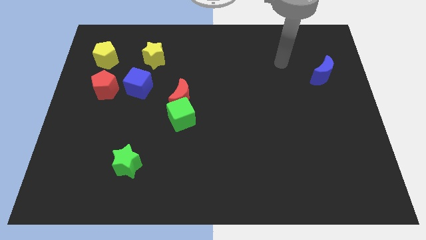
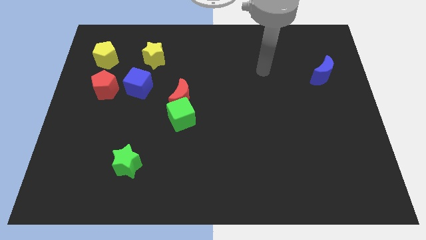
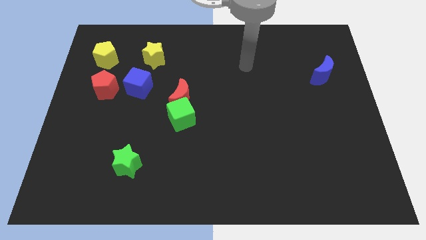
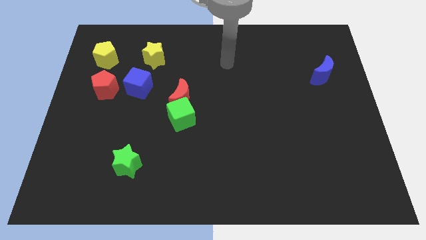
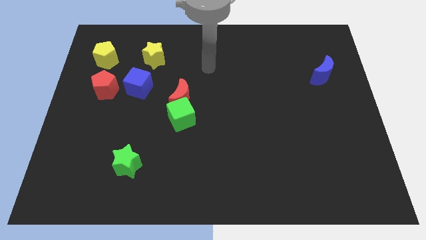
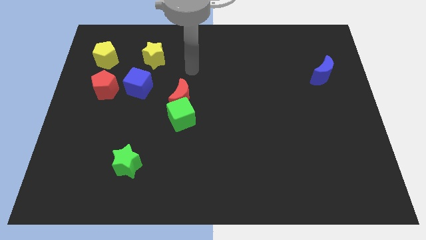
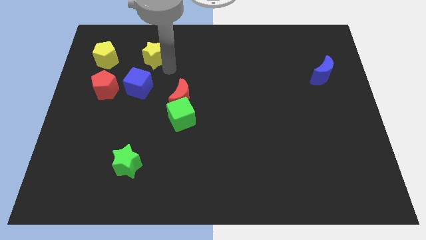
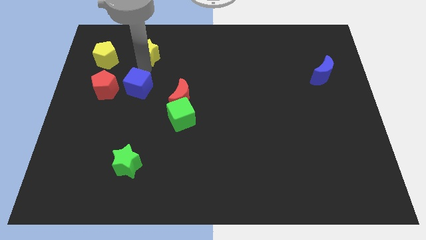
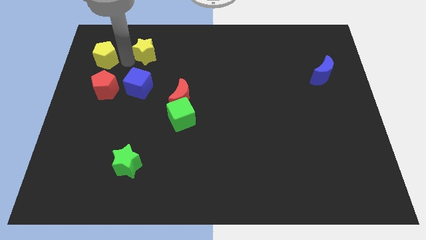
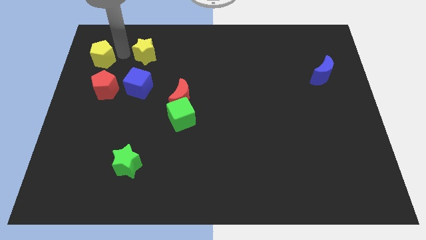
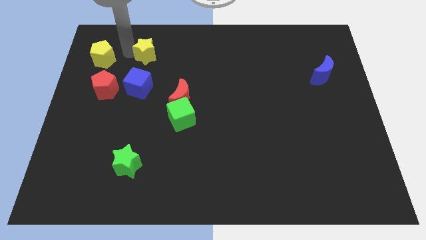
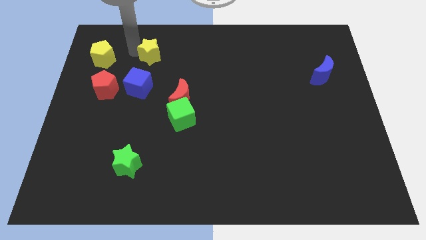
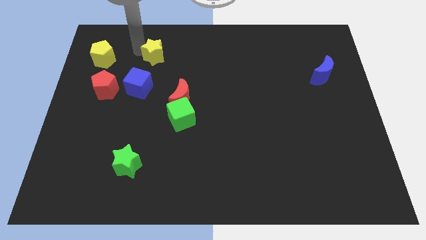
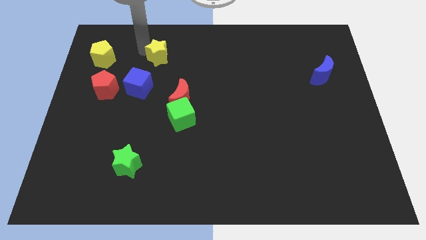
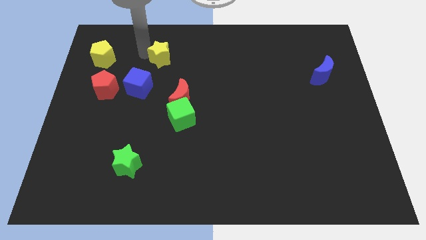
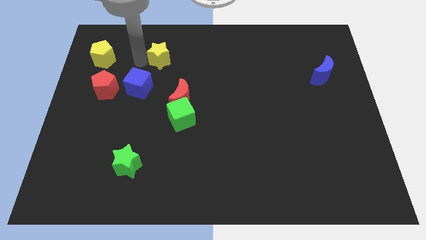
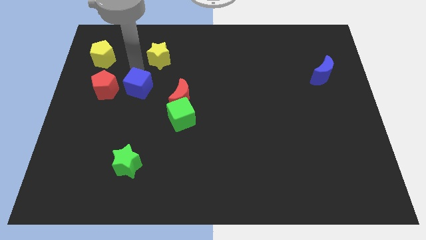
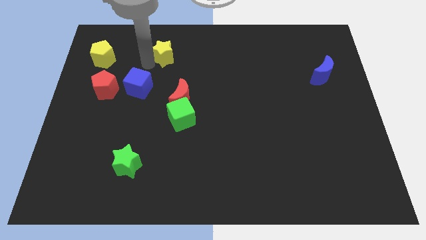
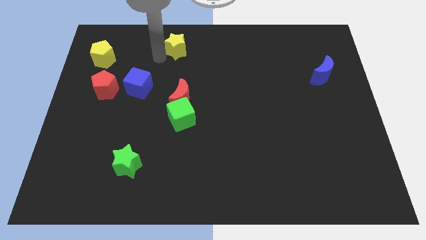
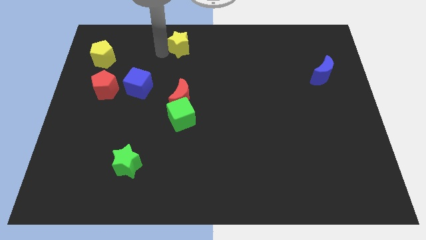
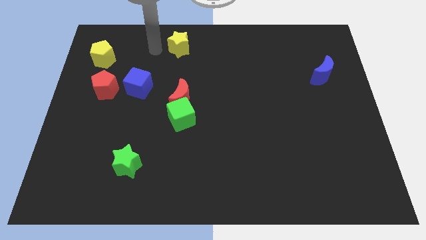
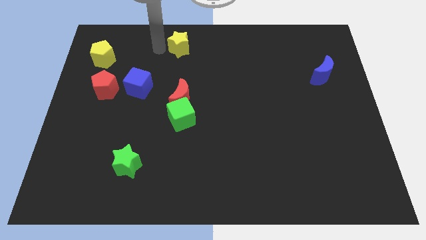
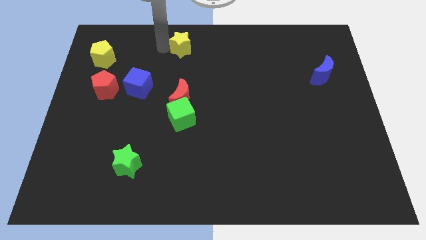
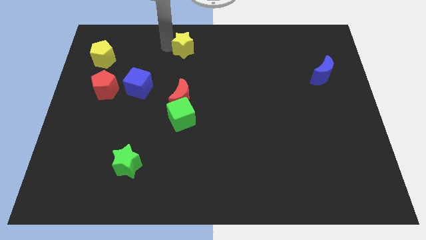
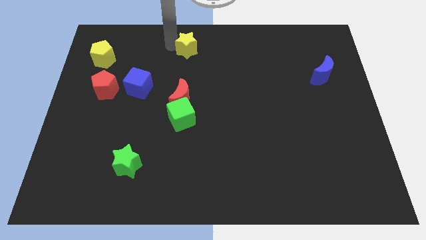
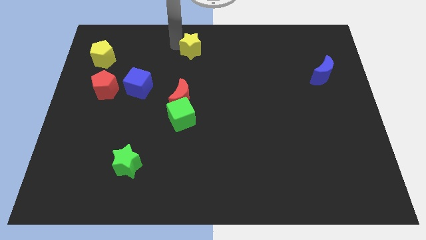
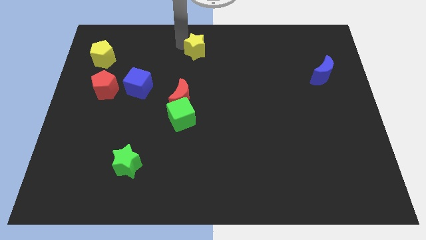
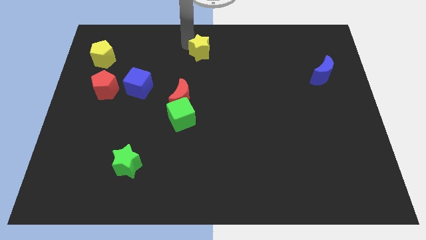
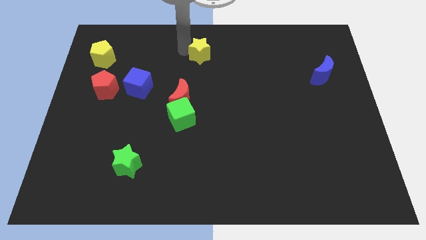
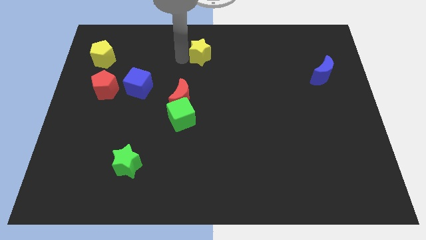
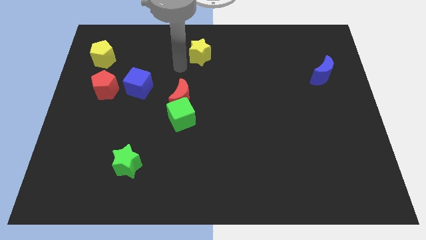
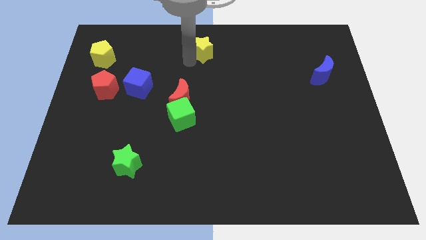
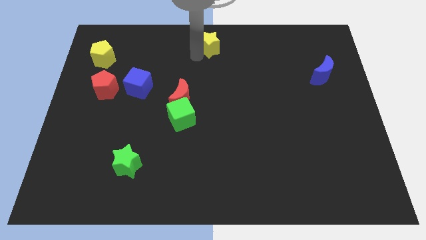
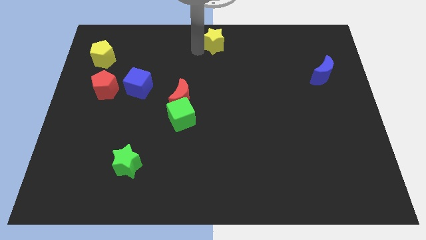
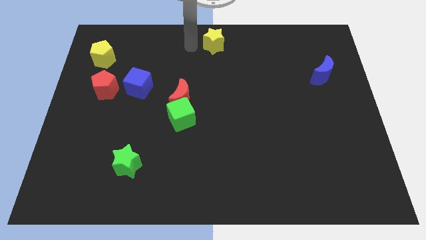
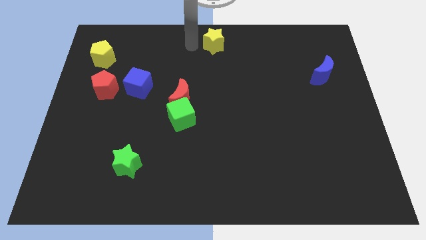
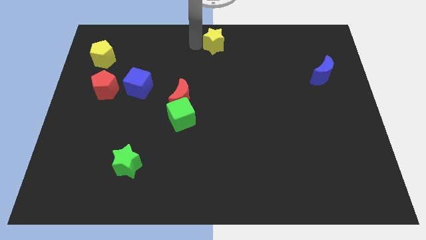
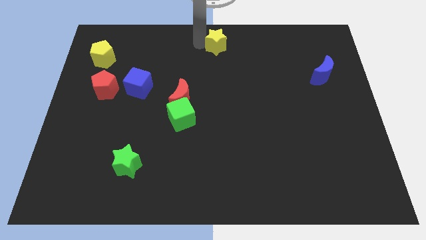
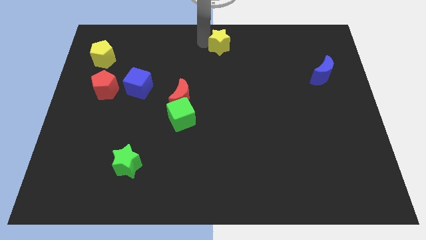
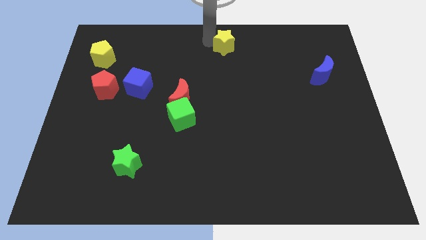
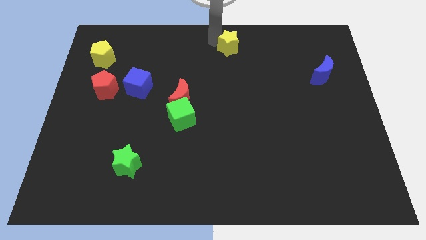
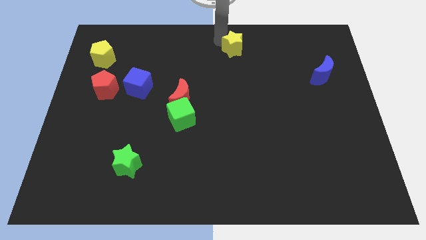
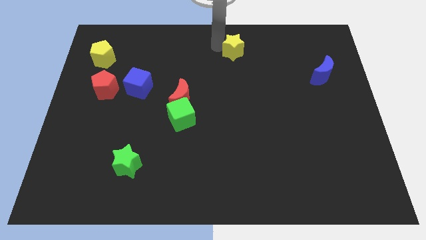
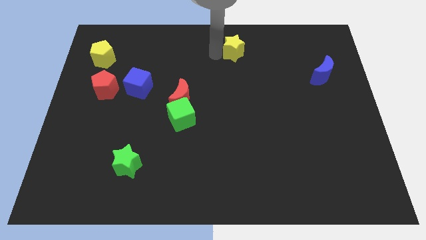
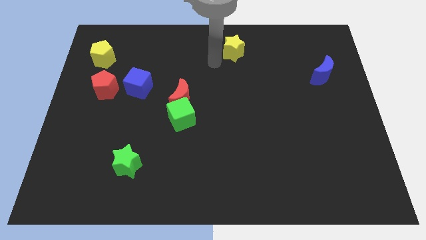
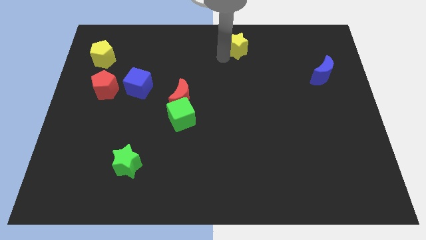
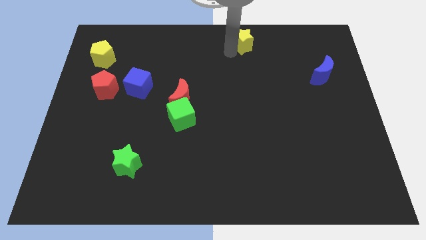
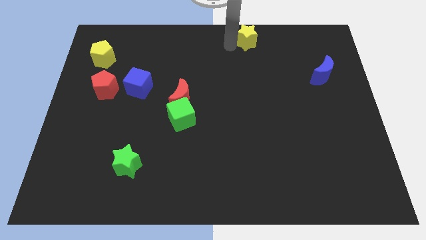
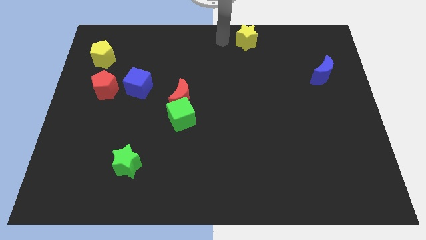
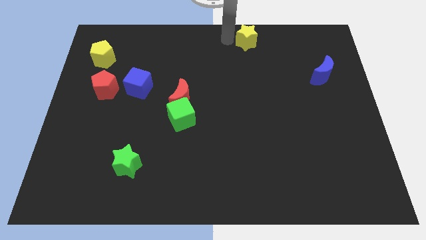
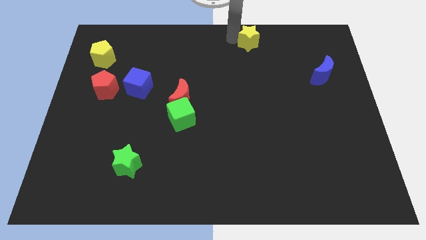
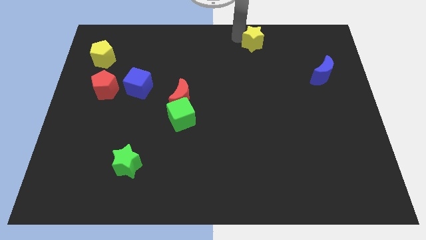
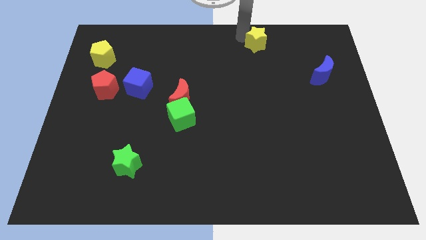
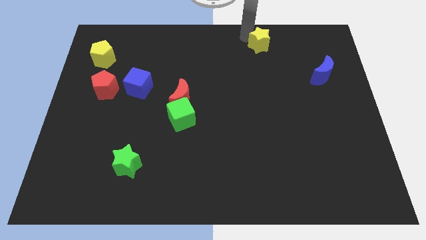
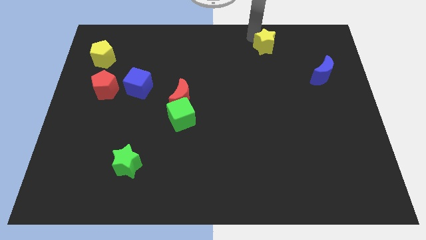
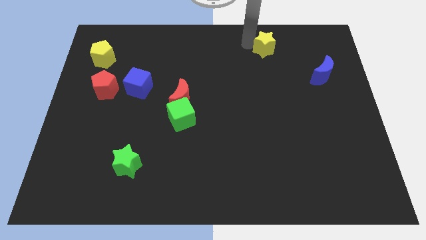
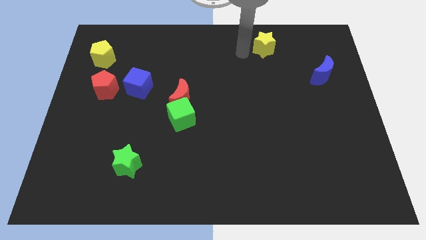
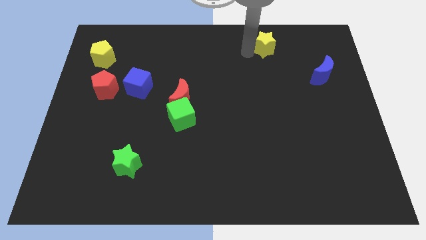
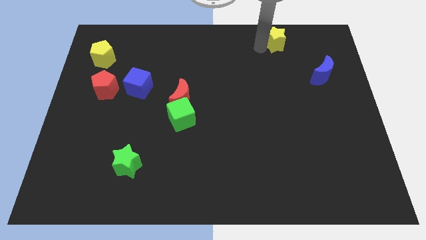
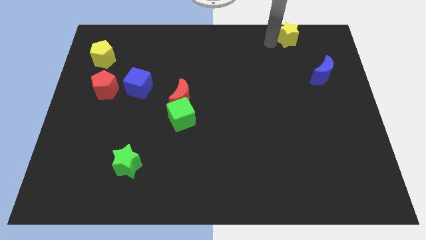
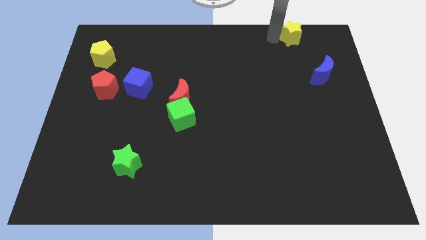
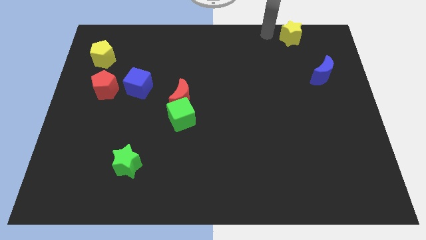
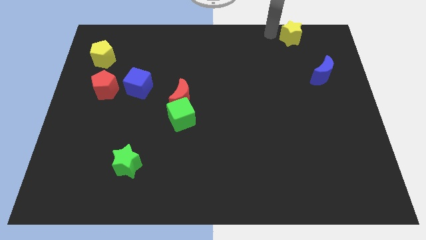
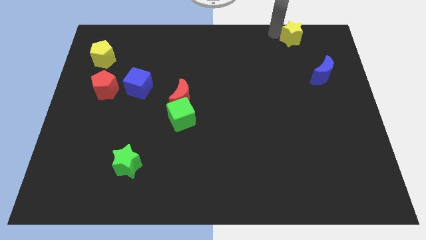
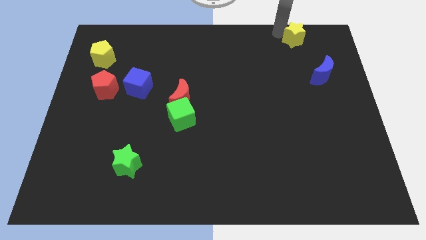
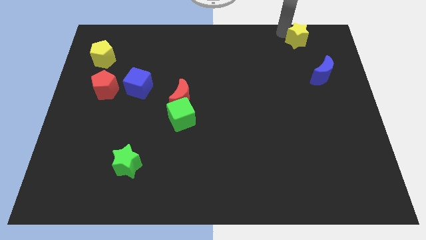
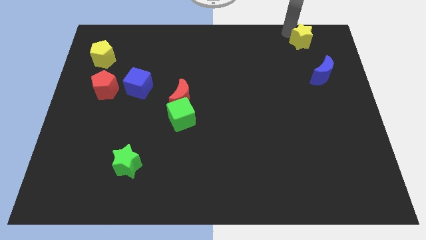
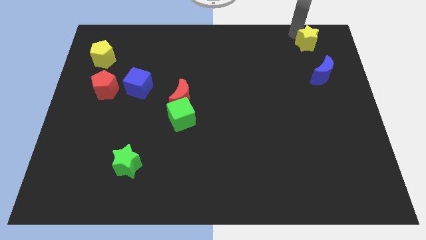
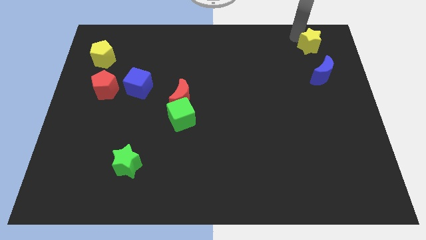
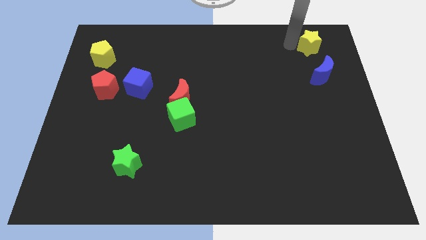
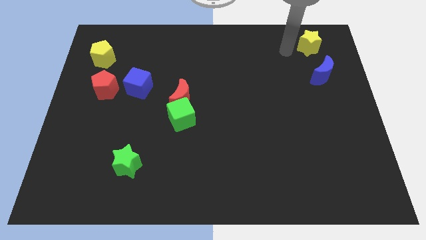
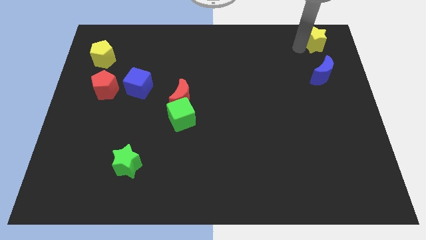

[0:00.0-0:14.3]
put the yellow star to the top right of the board
